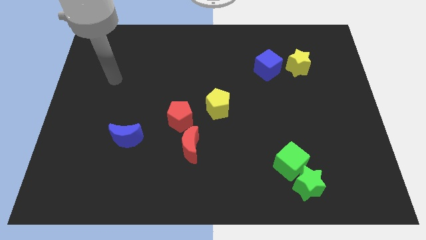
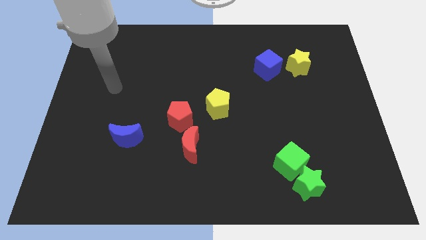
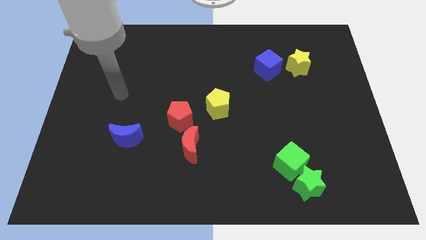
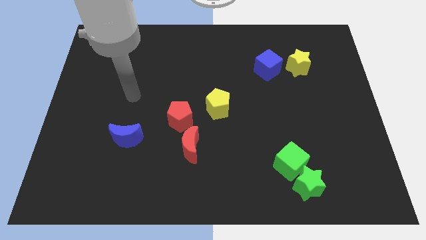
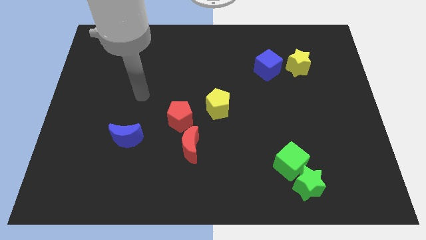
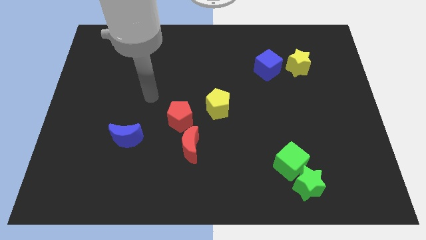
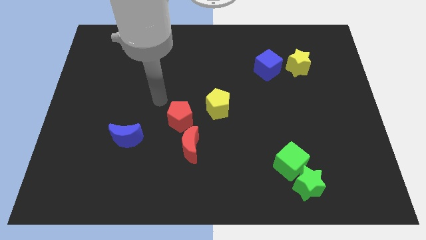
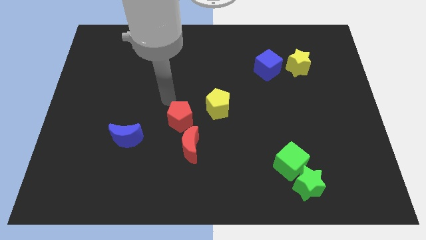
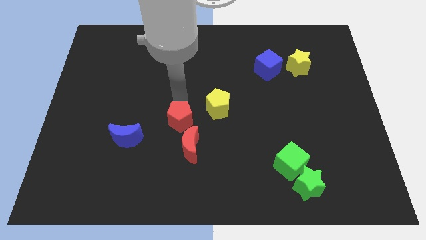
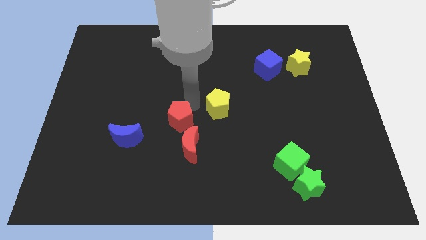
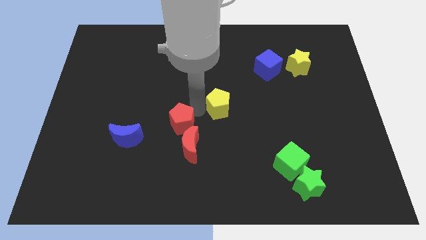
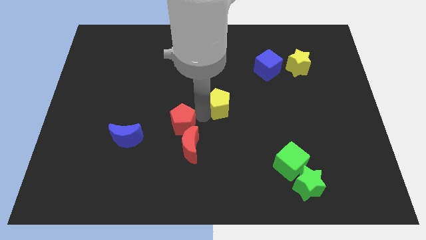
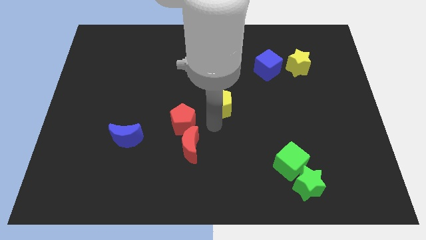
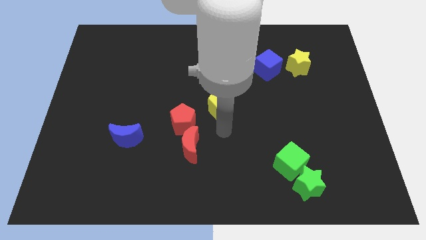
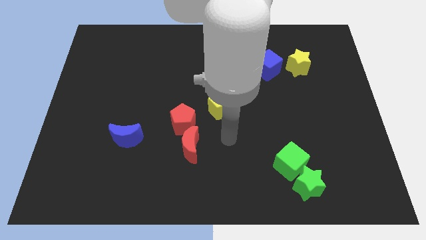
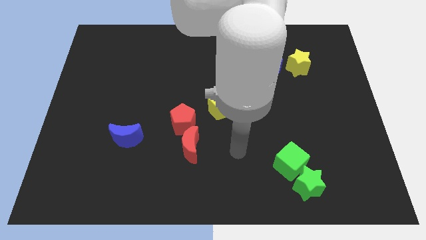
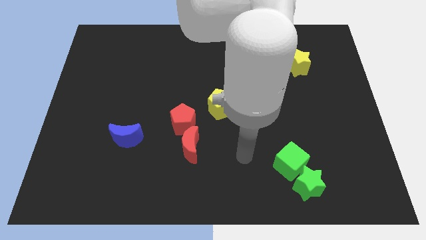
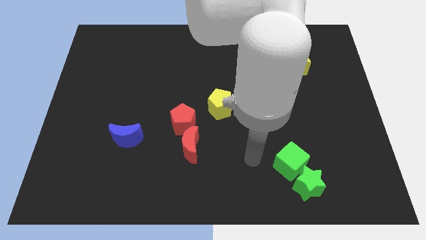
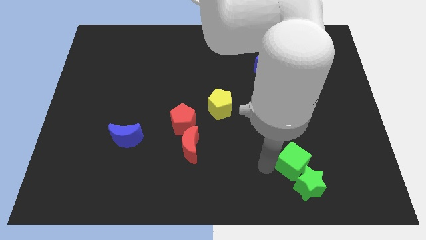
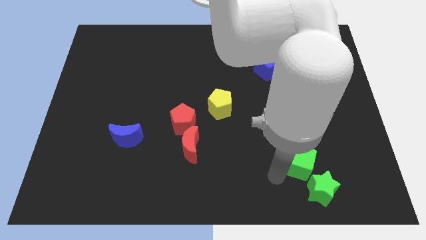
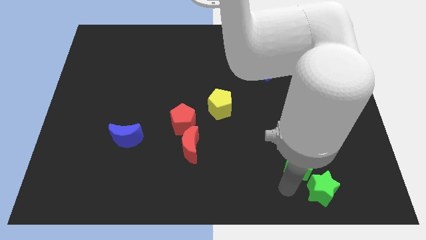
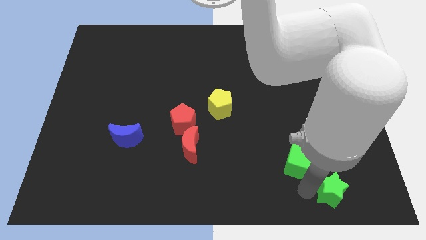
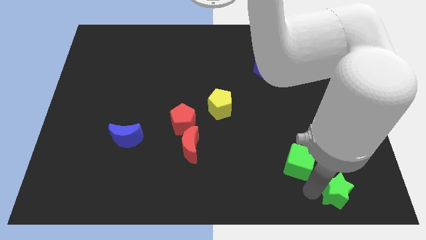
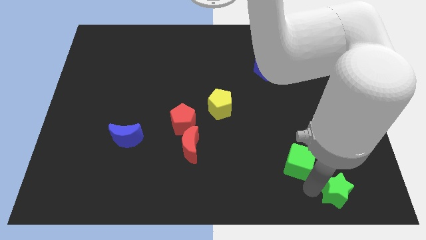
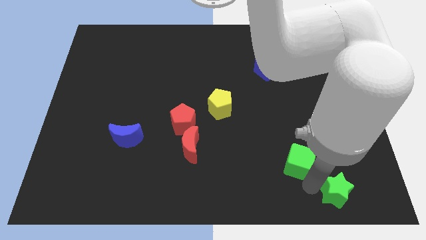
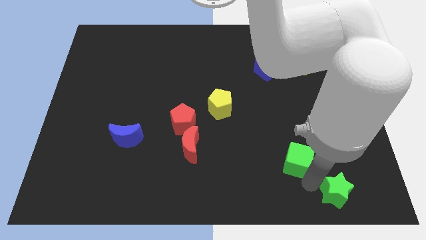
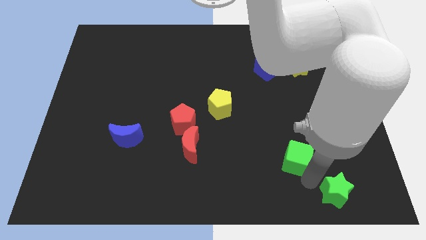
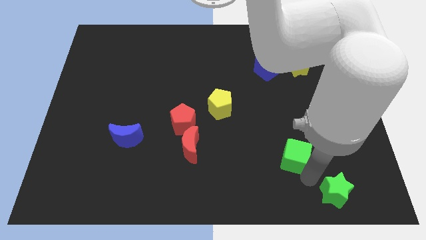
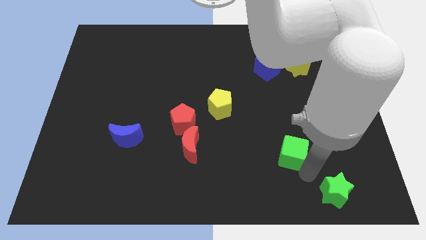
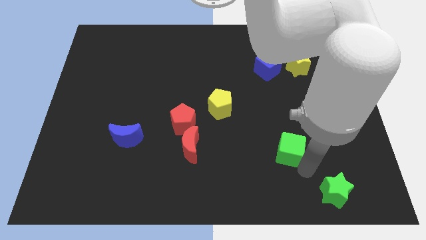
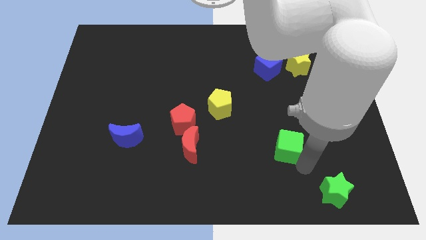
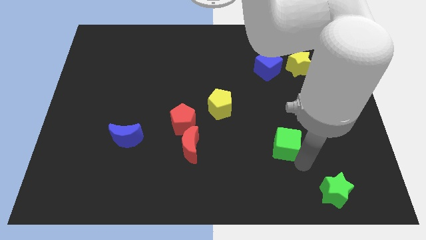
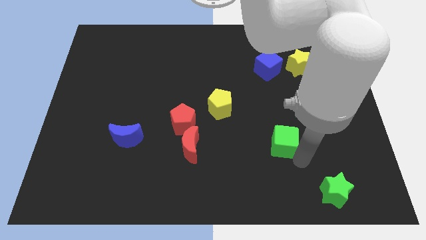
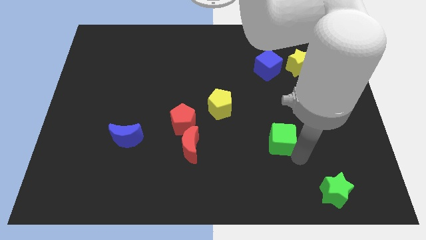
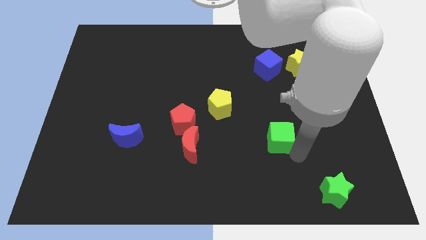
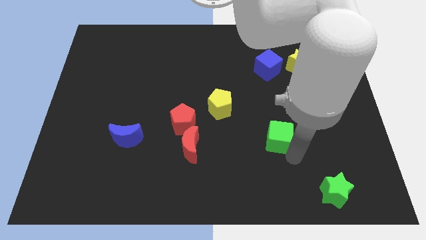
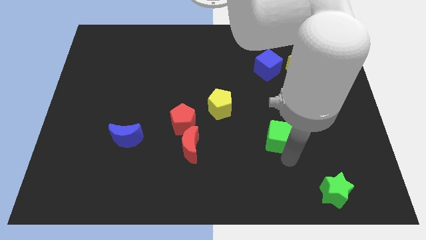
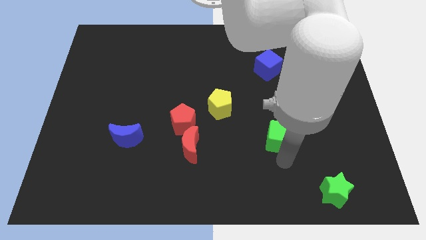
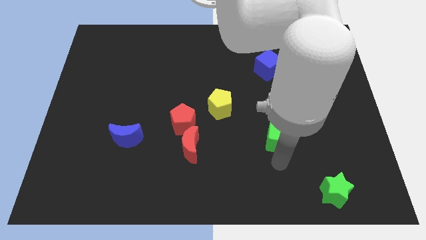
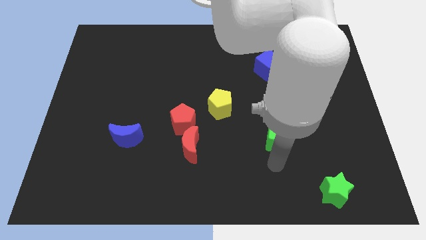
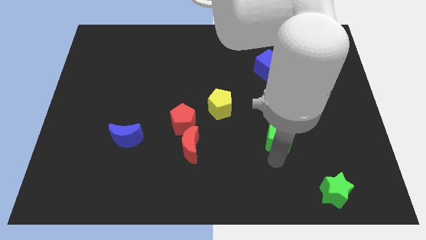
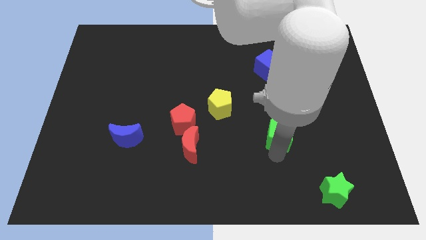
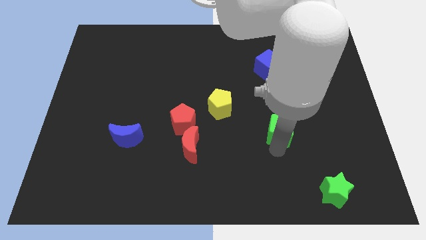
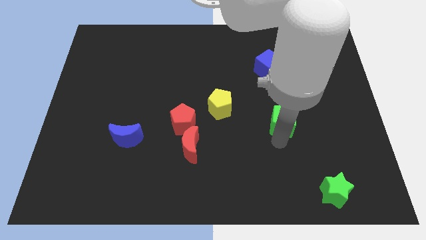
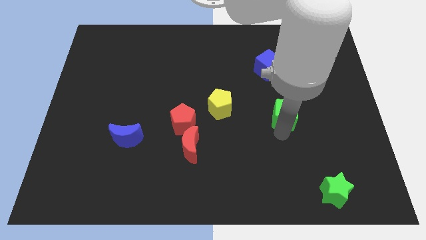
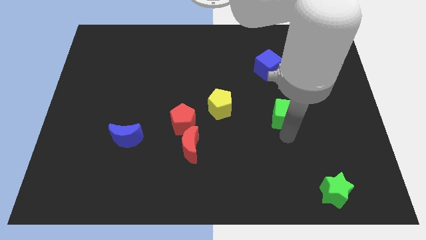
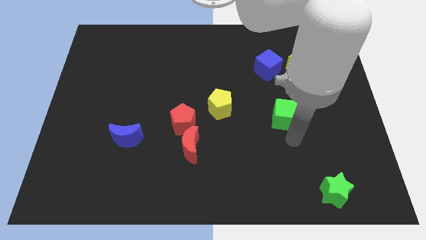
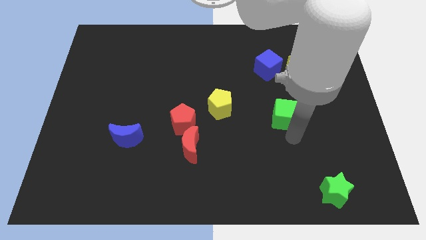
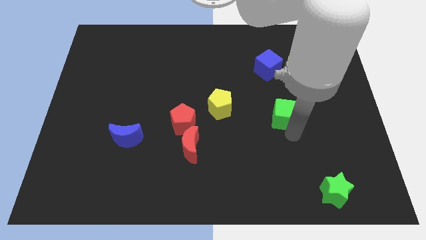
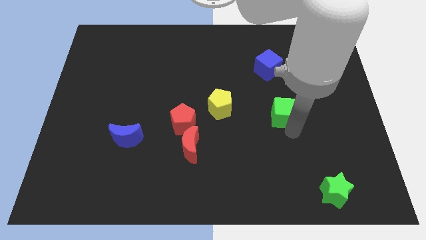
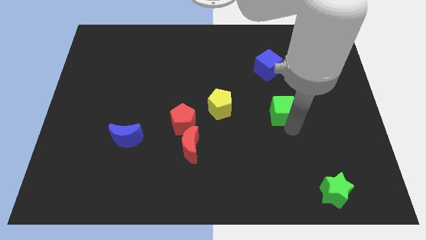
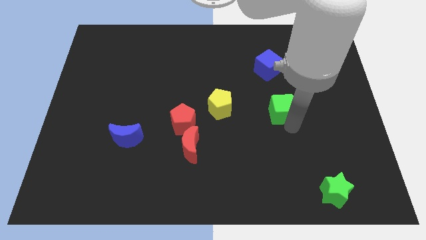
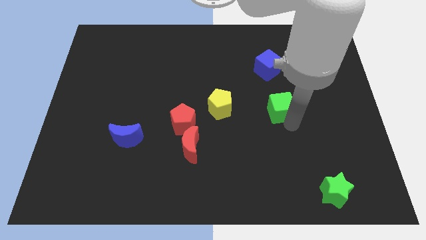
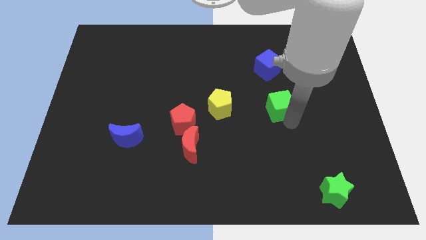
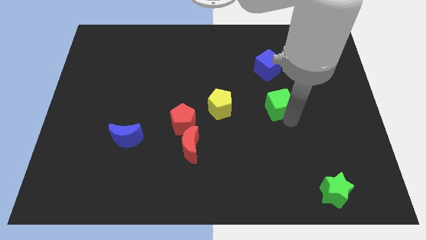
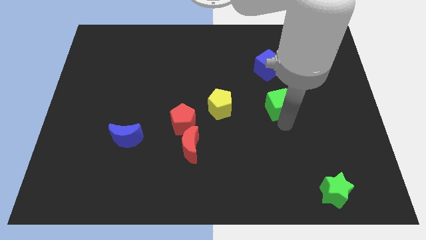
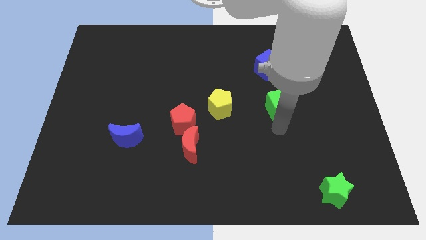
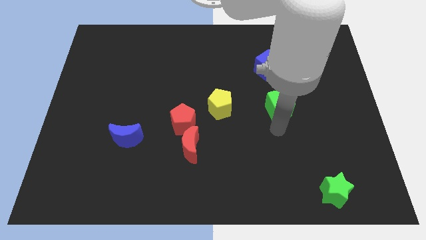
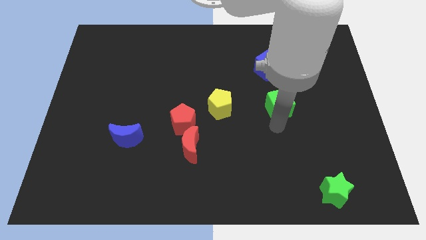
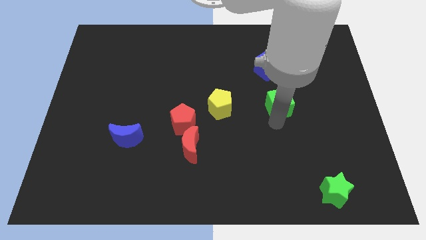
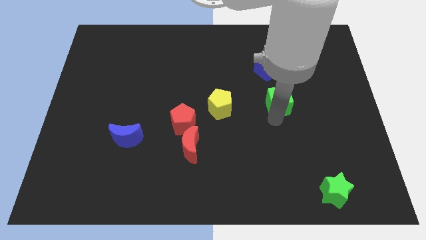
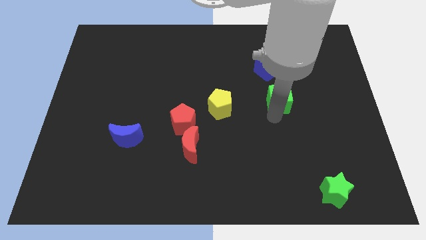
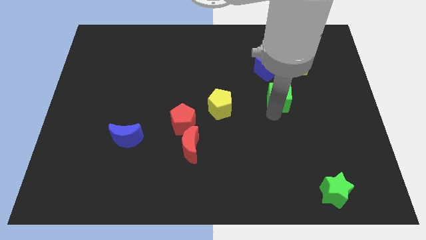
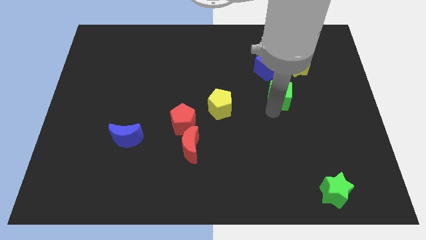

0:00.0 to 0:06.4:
put the green cube diagonally down and to the left of the yellow star
